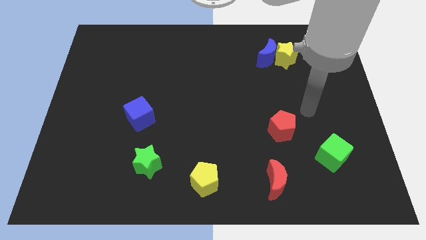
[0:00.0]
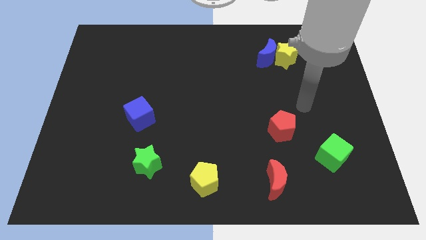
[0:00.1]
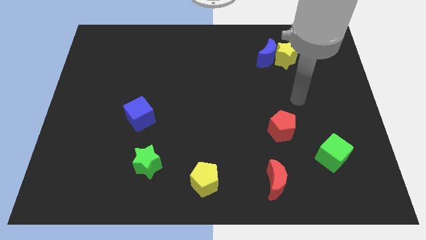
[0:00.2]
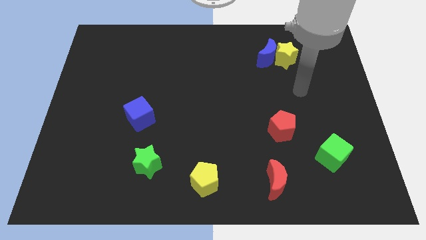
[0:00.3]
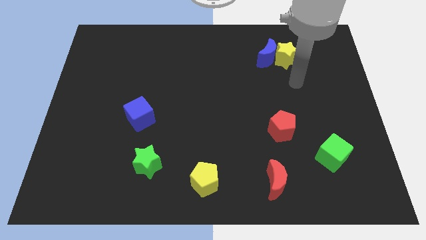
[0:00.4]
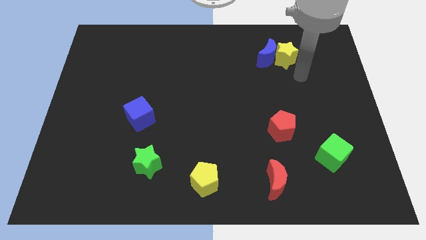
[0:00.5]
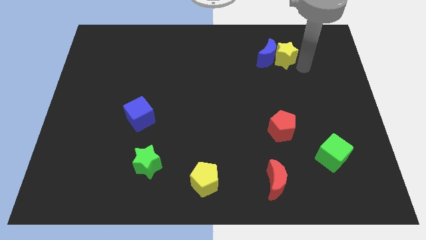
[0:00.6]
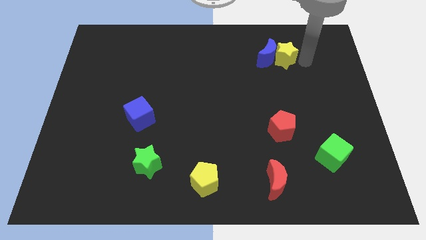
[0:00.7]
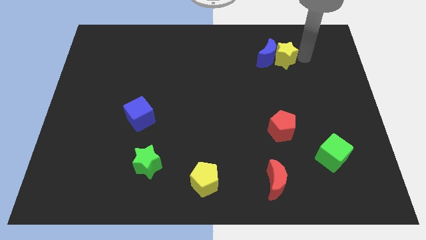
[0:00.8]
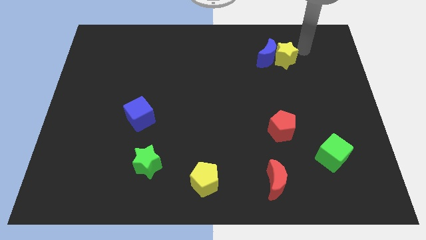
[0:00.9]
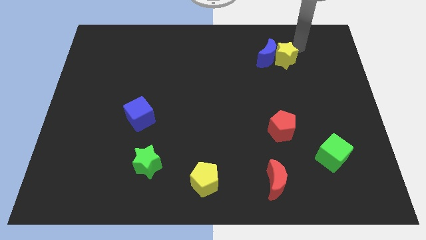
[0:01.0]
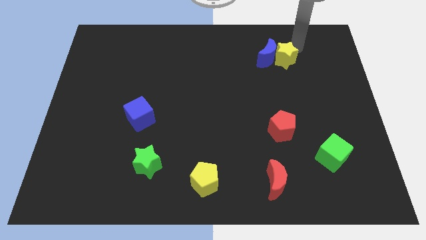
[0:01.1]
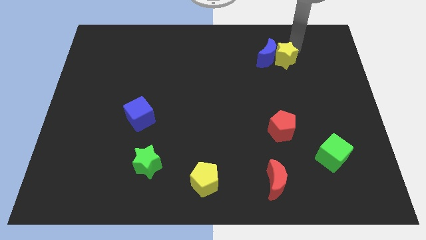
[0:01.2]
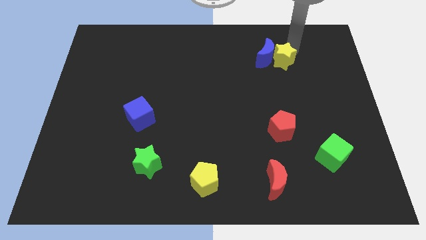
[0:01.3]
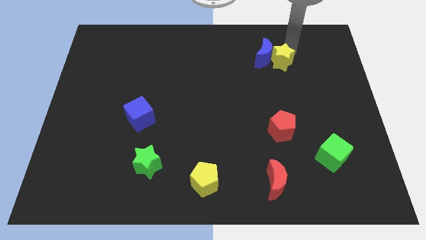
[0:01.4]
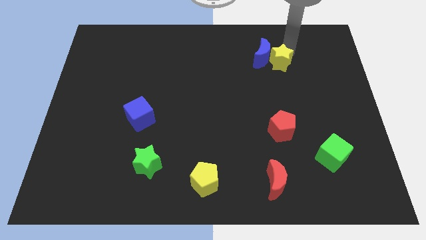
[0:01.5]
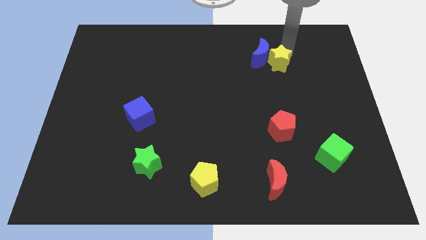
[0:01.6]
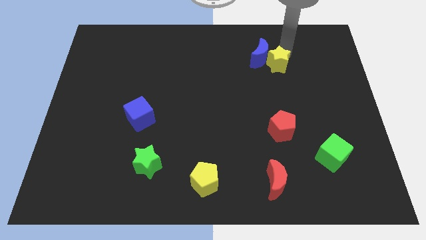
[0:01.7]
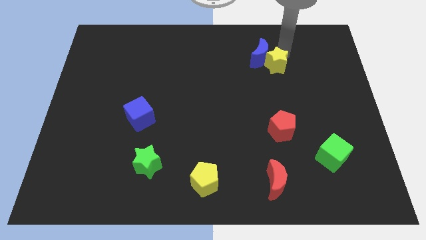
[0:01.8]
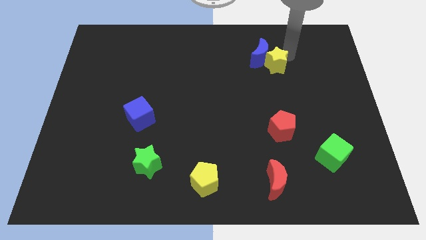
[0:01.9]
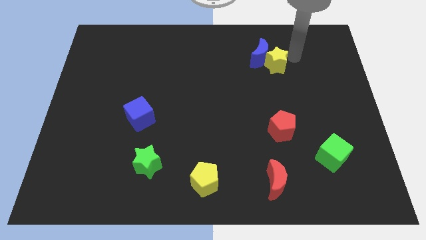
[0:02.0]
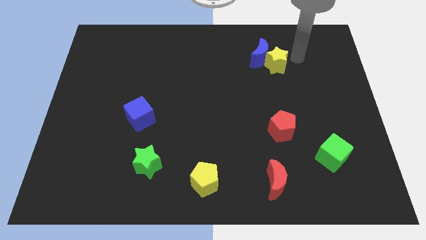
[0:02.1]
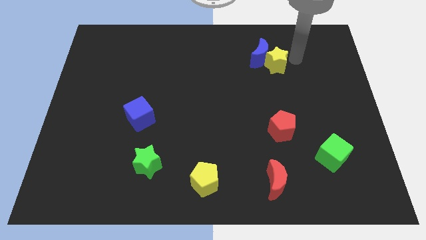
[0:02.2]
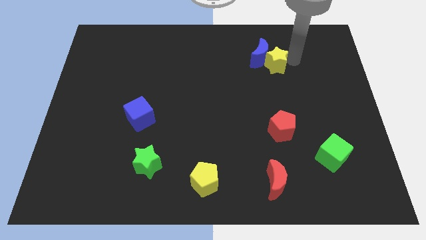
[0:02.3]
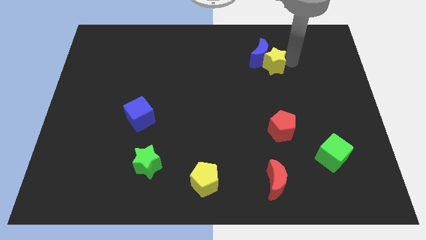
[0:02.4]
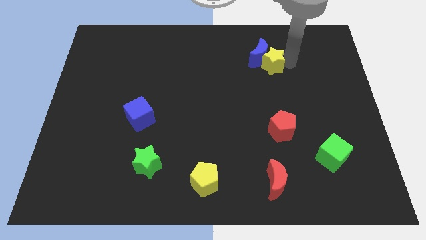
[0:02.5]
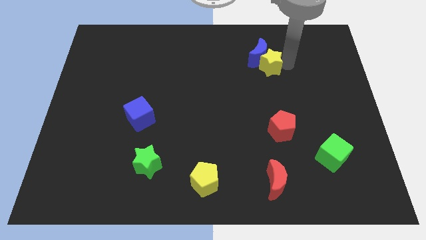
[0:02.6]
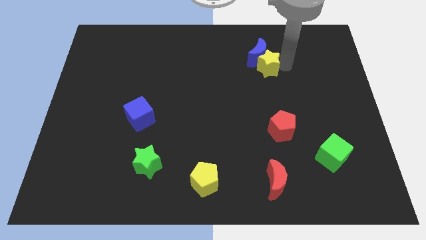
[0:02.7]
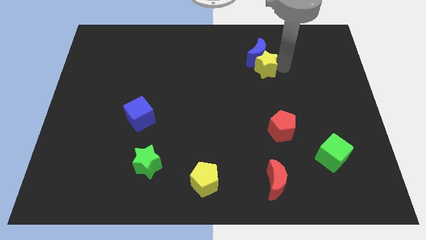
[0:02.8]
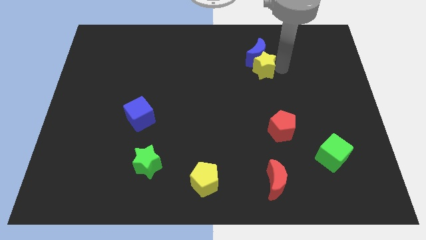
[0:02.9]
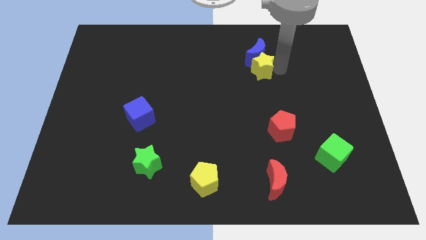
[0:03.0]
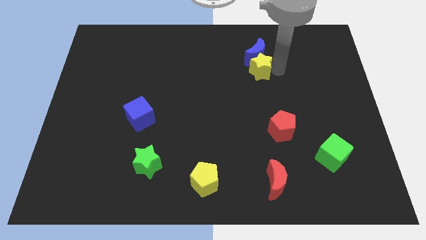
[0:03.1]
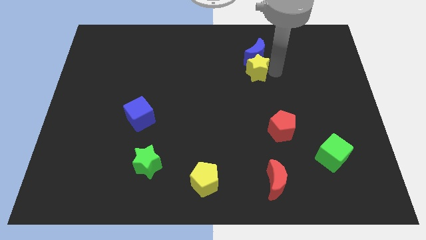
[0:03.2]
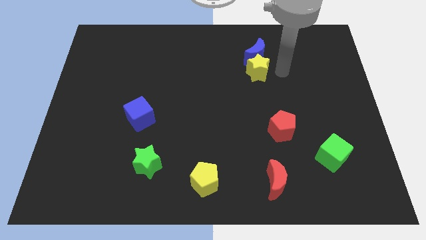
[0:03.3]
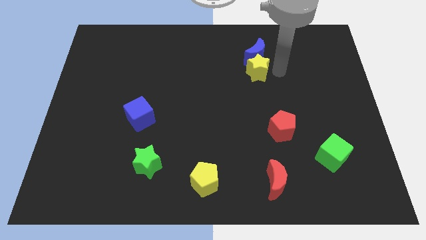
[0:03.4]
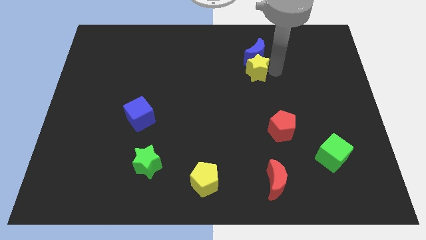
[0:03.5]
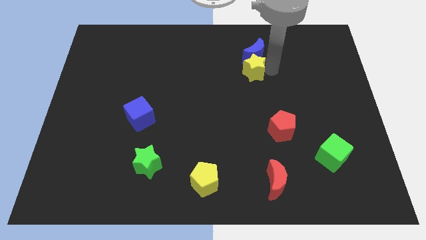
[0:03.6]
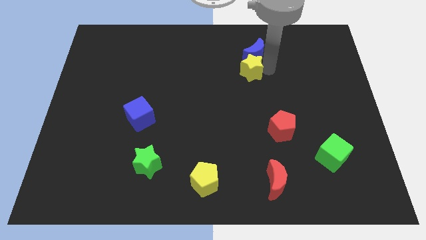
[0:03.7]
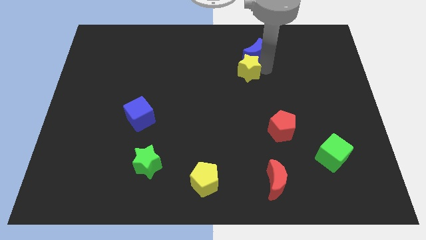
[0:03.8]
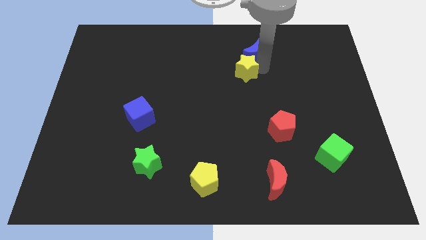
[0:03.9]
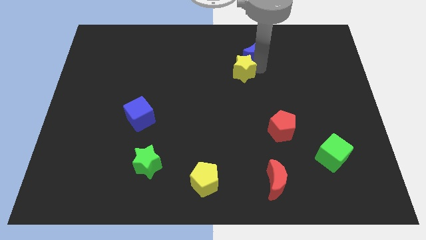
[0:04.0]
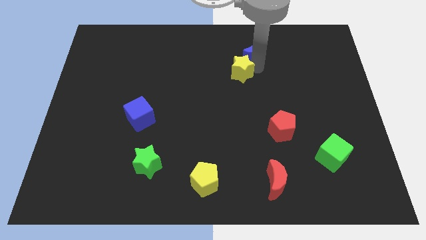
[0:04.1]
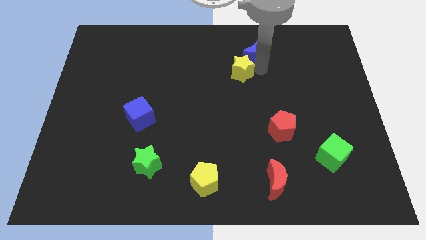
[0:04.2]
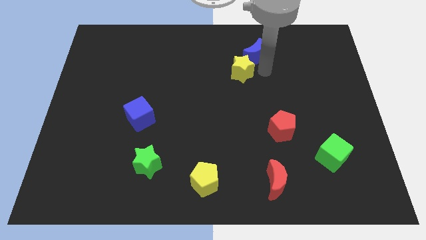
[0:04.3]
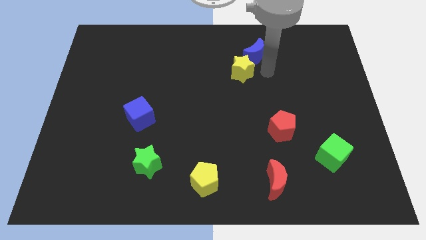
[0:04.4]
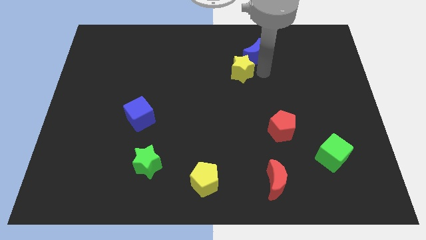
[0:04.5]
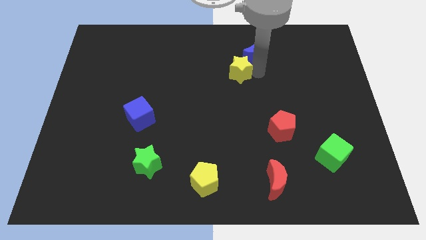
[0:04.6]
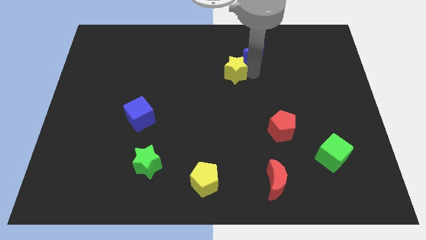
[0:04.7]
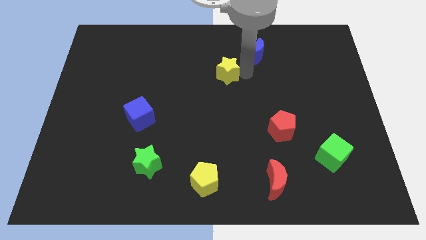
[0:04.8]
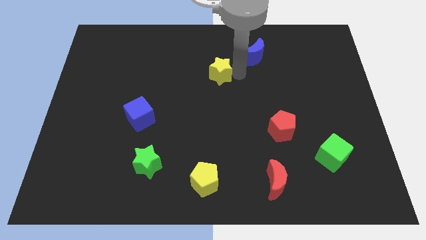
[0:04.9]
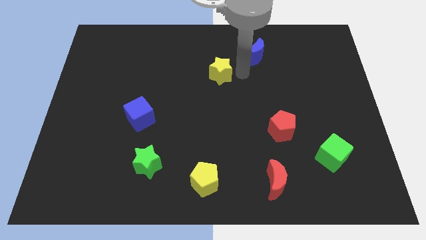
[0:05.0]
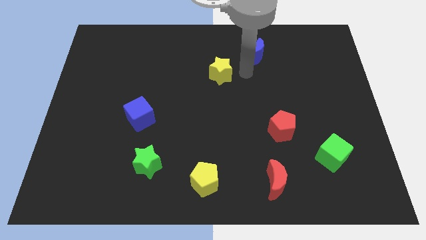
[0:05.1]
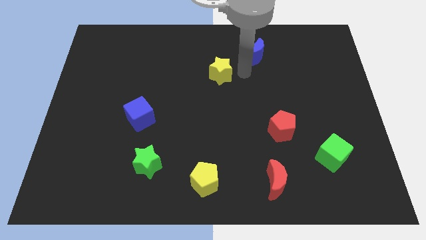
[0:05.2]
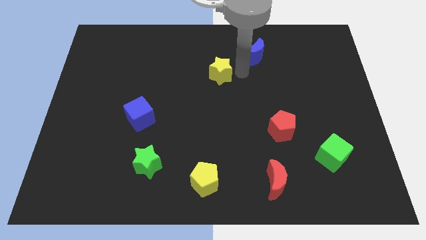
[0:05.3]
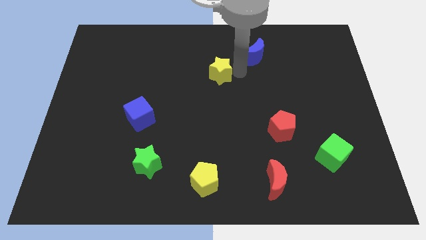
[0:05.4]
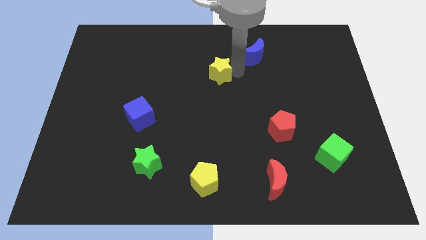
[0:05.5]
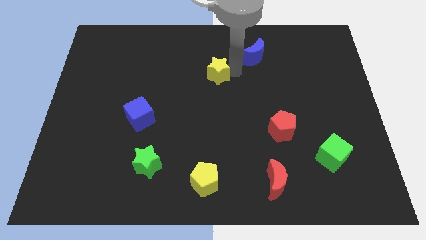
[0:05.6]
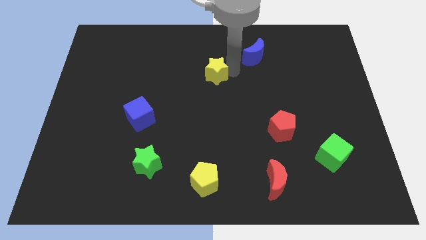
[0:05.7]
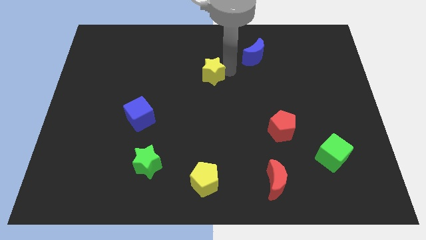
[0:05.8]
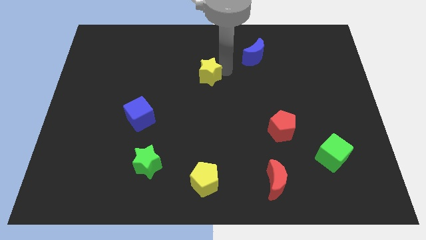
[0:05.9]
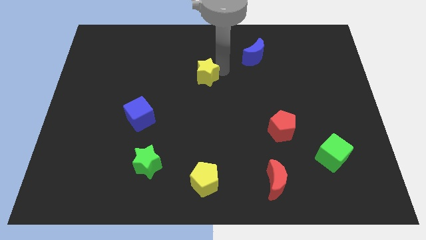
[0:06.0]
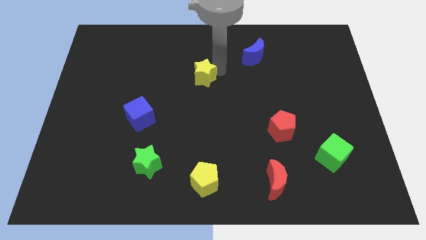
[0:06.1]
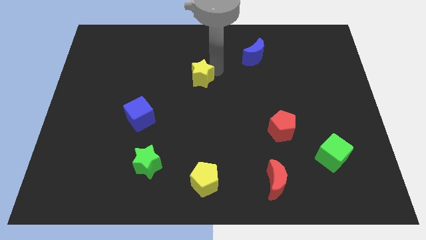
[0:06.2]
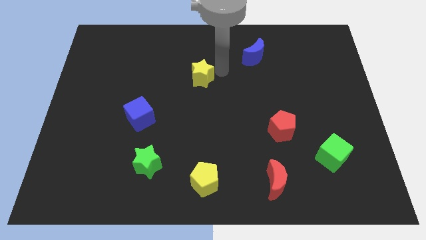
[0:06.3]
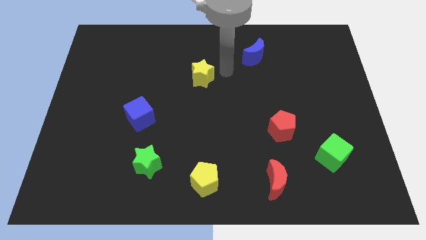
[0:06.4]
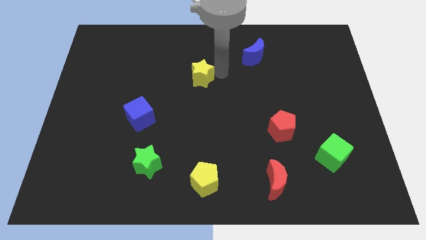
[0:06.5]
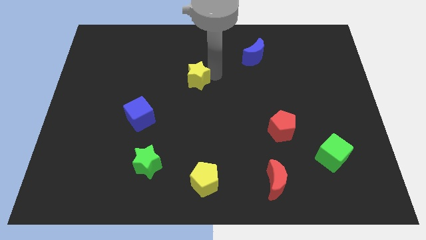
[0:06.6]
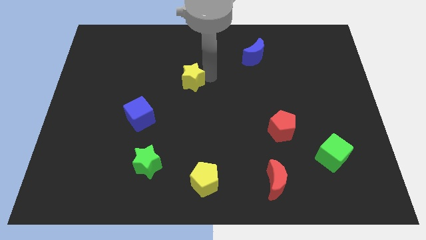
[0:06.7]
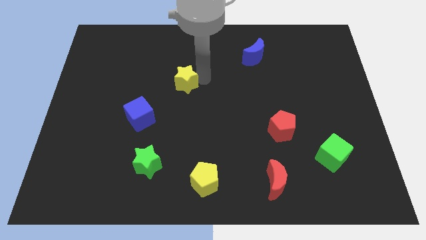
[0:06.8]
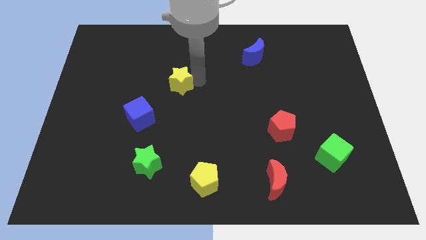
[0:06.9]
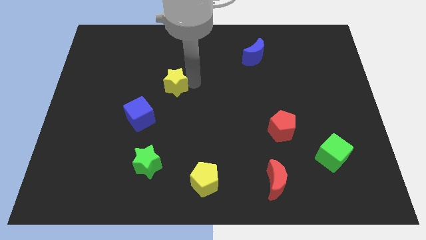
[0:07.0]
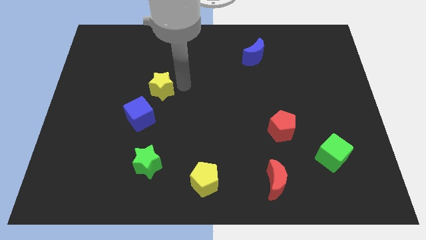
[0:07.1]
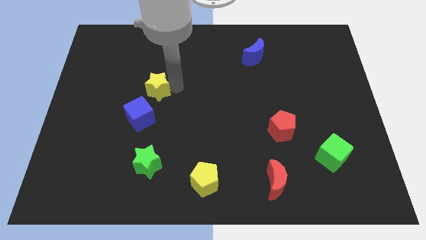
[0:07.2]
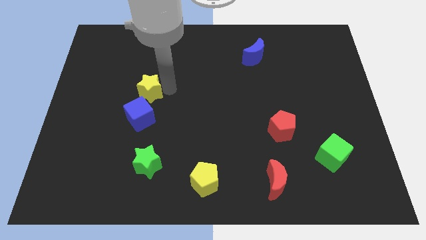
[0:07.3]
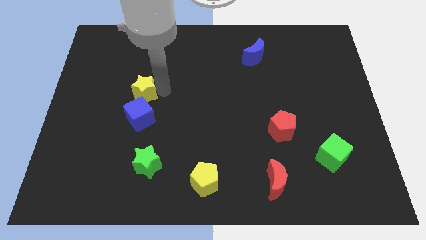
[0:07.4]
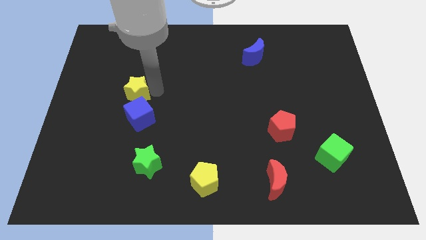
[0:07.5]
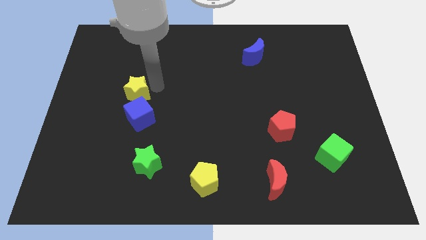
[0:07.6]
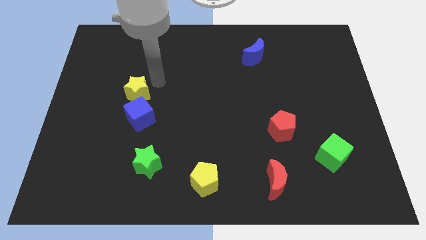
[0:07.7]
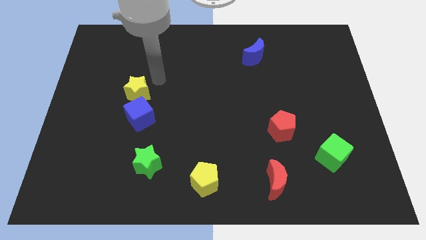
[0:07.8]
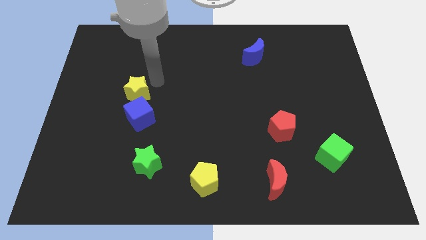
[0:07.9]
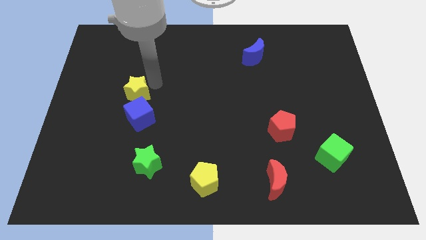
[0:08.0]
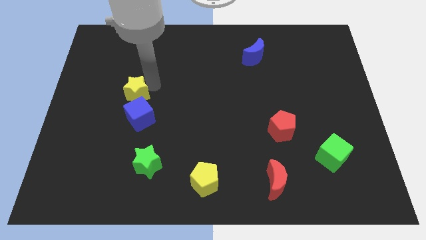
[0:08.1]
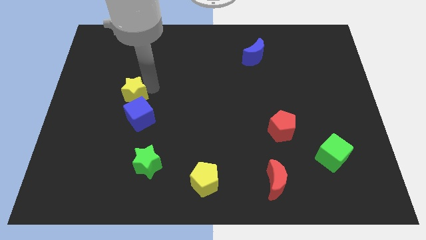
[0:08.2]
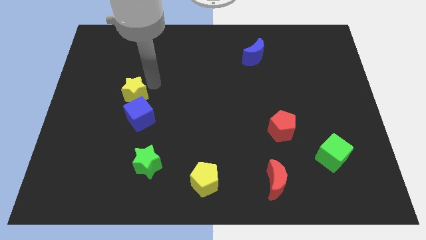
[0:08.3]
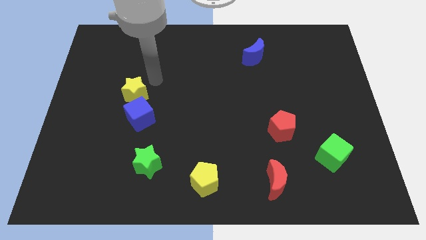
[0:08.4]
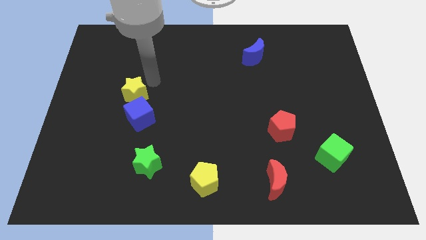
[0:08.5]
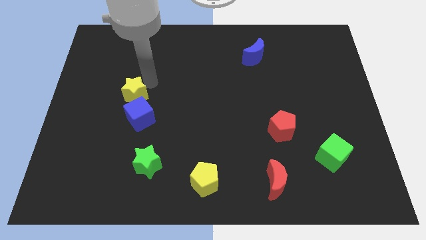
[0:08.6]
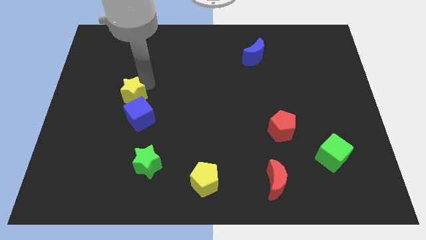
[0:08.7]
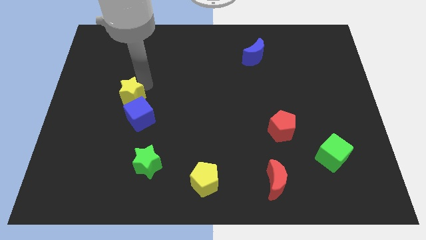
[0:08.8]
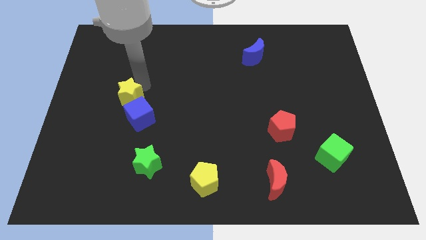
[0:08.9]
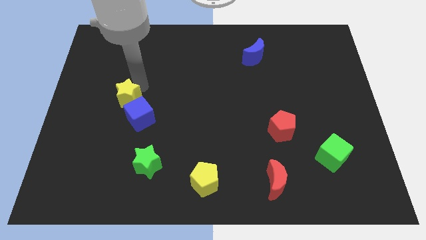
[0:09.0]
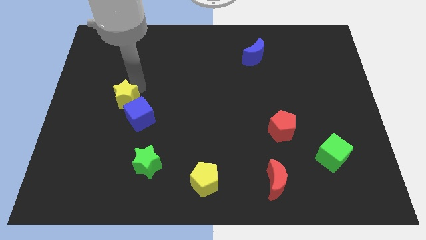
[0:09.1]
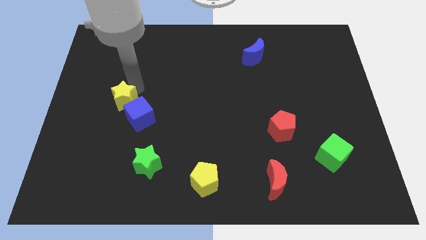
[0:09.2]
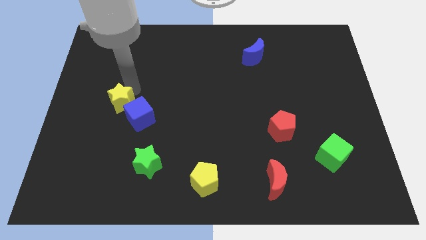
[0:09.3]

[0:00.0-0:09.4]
push the yellow star to the left of the blue cube
